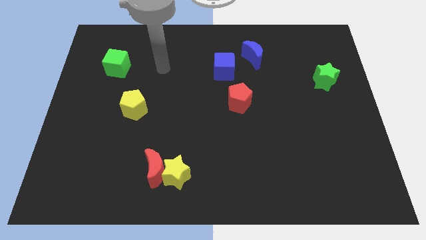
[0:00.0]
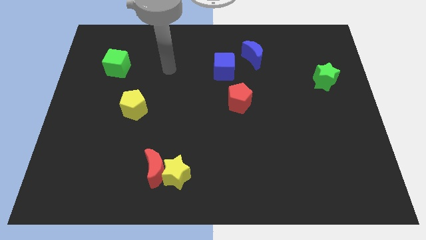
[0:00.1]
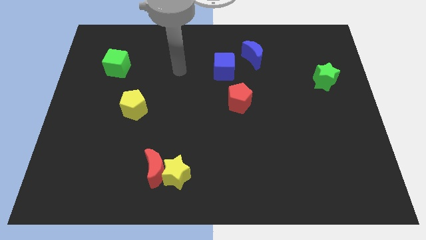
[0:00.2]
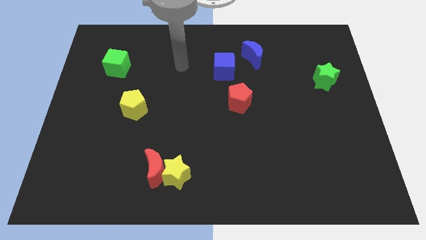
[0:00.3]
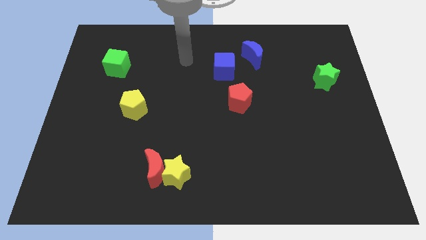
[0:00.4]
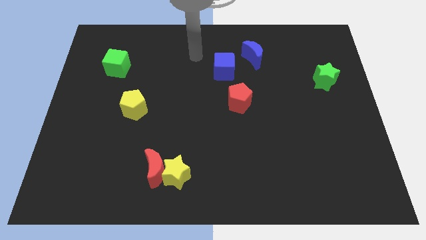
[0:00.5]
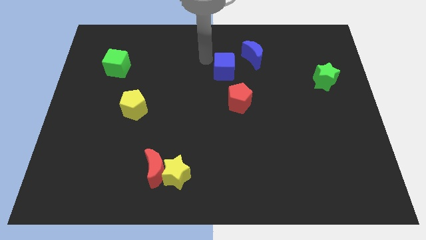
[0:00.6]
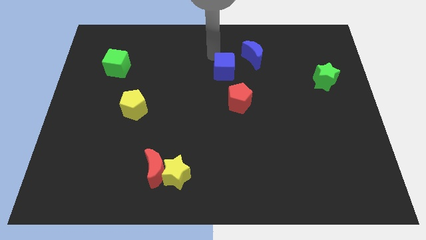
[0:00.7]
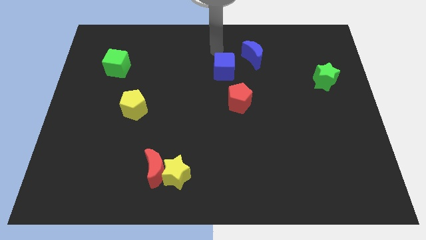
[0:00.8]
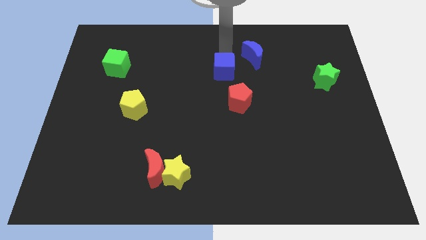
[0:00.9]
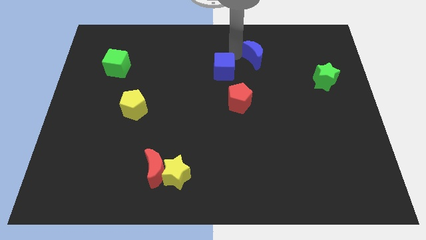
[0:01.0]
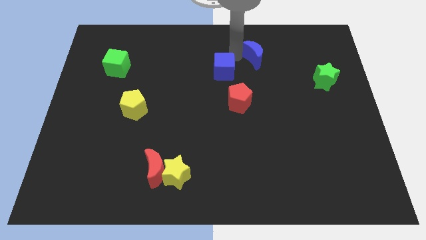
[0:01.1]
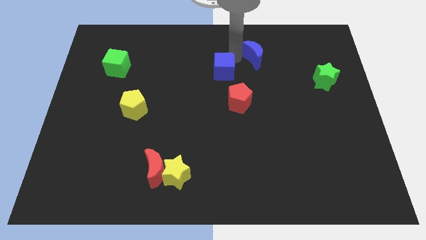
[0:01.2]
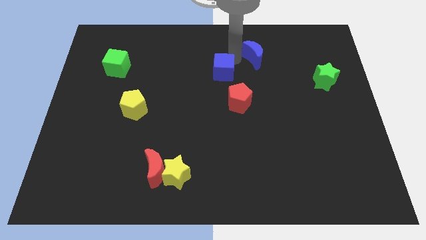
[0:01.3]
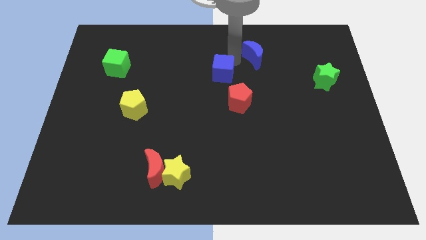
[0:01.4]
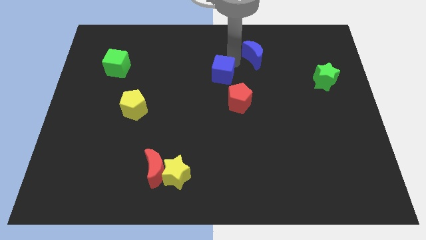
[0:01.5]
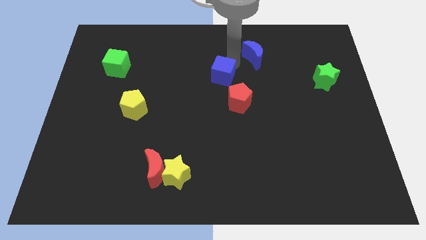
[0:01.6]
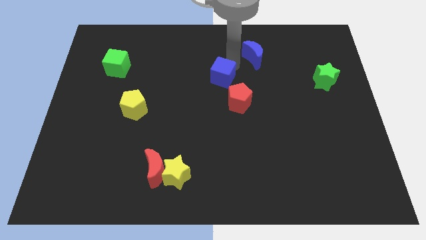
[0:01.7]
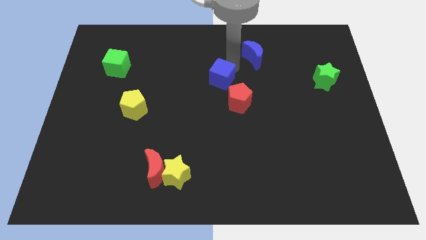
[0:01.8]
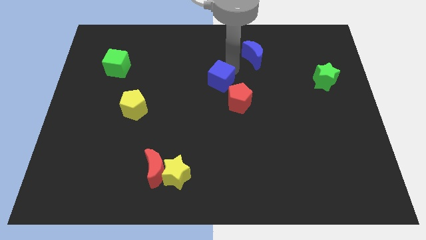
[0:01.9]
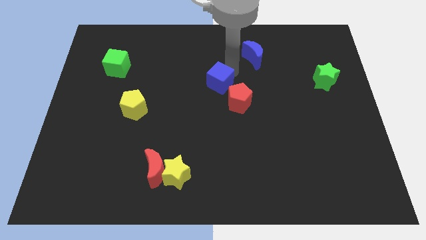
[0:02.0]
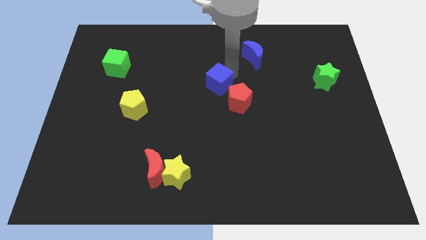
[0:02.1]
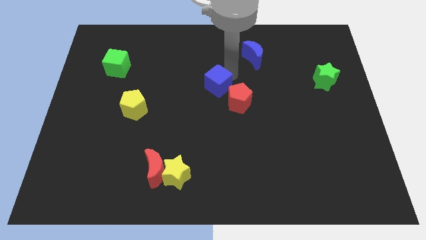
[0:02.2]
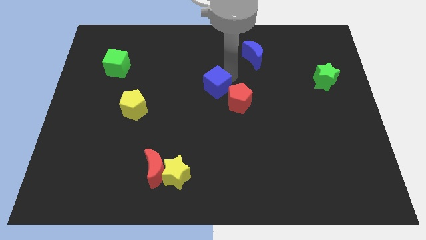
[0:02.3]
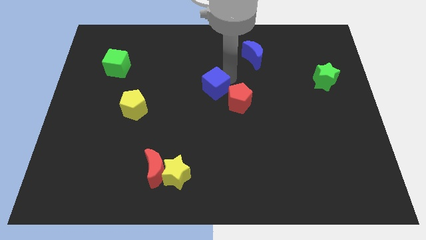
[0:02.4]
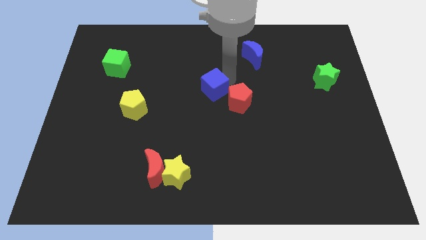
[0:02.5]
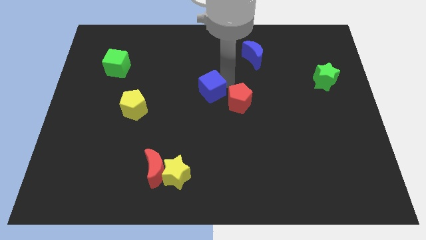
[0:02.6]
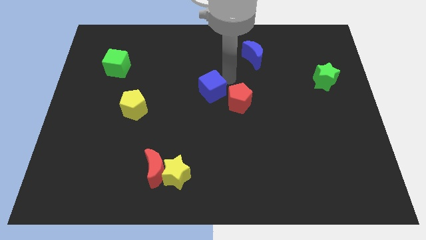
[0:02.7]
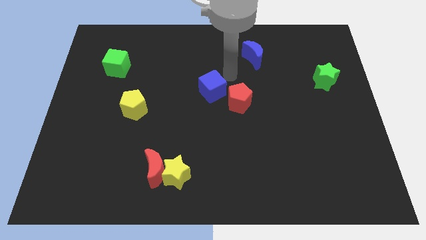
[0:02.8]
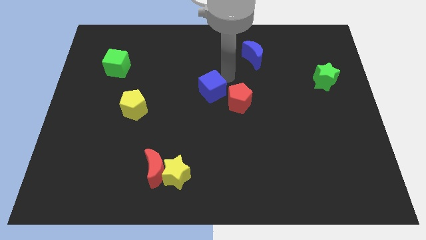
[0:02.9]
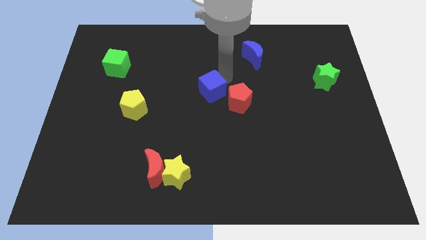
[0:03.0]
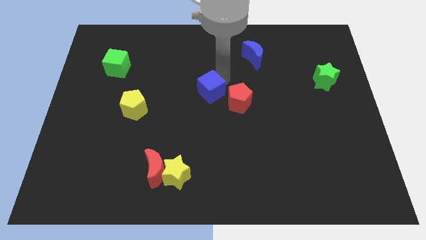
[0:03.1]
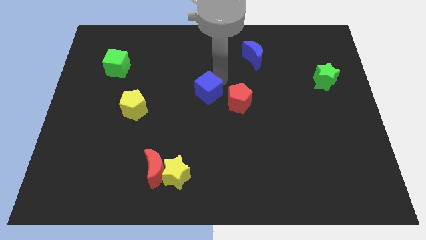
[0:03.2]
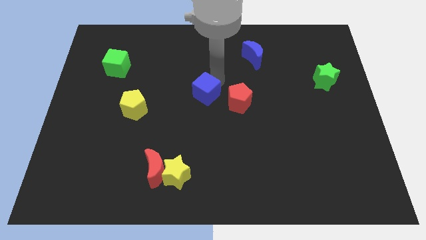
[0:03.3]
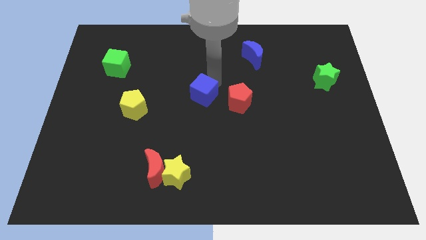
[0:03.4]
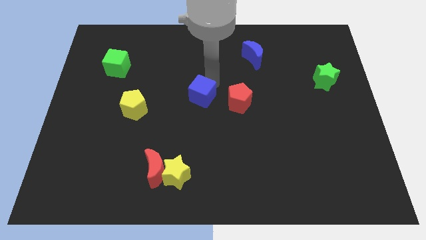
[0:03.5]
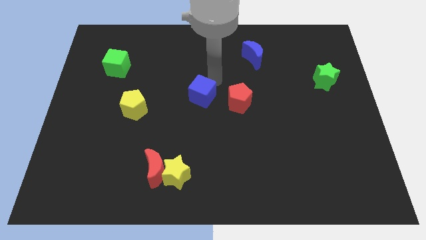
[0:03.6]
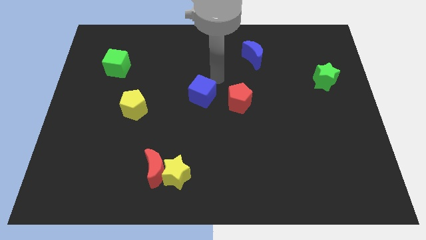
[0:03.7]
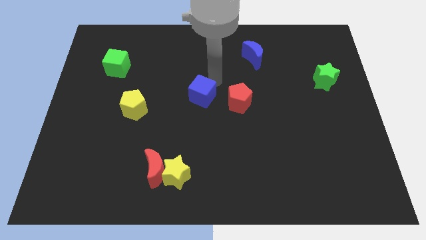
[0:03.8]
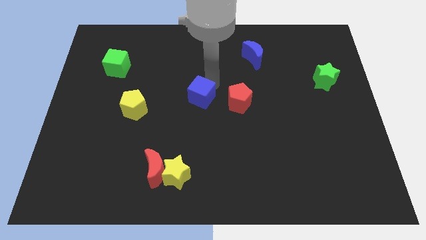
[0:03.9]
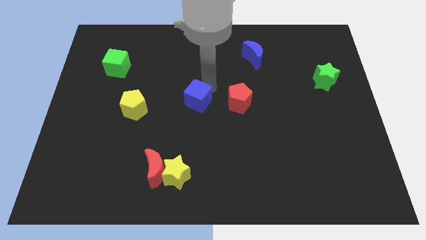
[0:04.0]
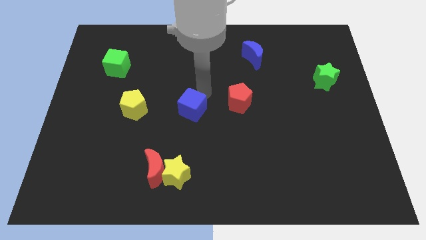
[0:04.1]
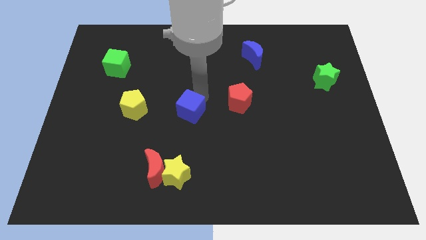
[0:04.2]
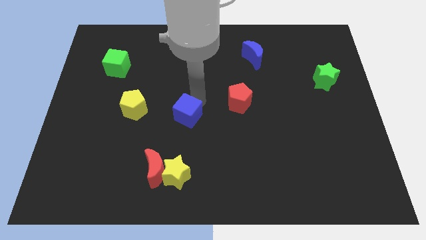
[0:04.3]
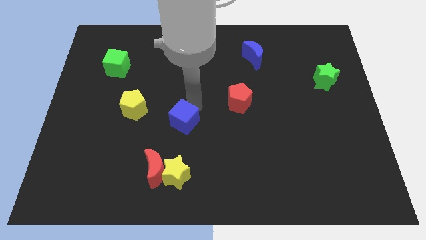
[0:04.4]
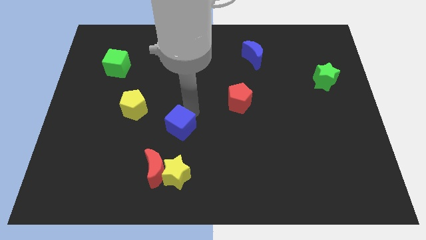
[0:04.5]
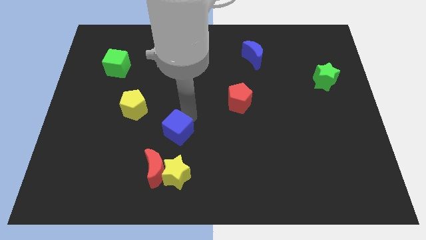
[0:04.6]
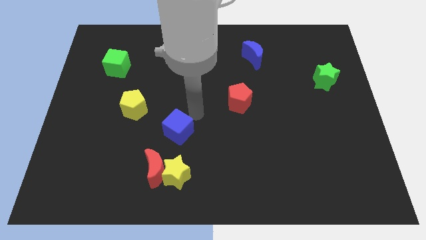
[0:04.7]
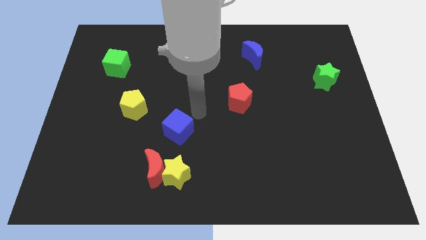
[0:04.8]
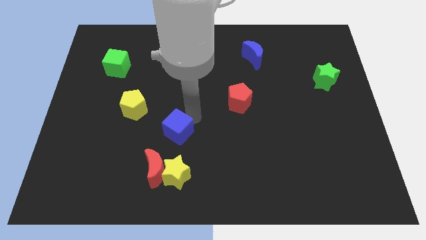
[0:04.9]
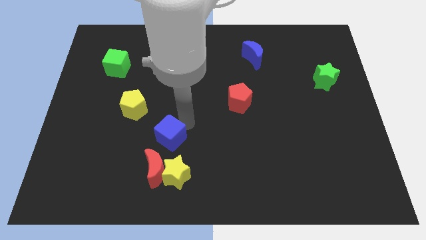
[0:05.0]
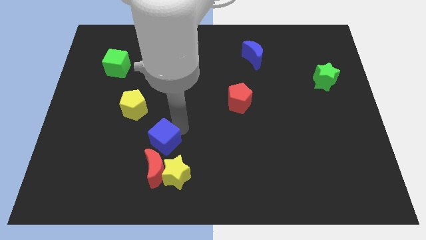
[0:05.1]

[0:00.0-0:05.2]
slide the blue cube to the top left side of the yellow star

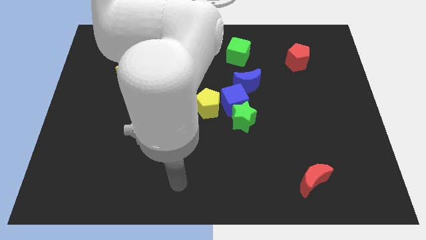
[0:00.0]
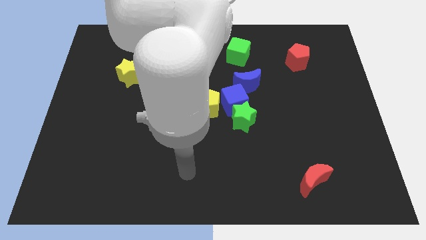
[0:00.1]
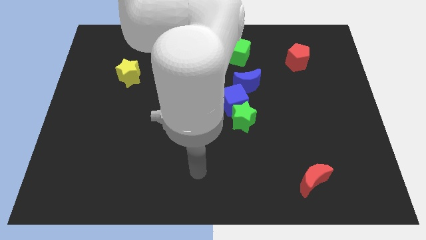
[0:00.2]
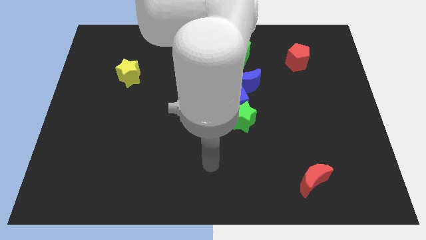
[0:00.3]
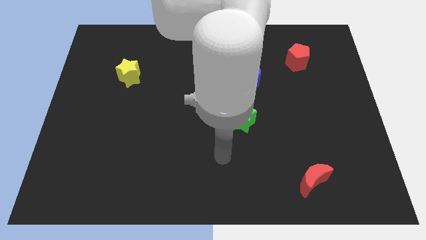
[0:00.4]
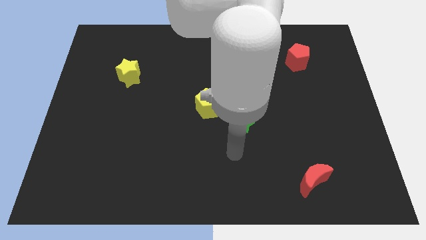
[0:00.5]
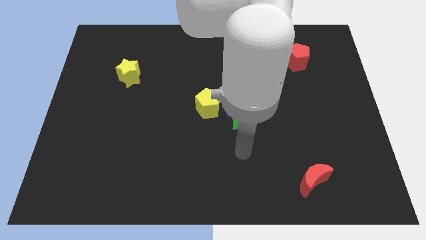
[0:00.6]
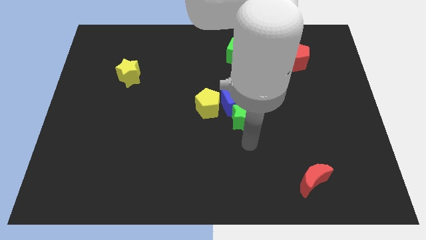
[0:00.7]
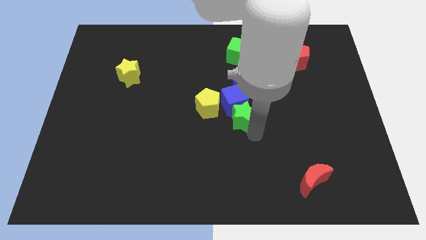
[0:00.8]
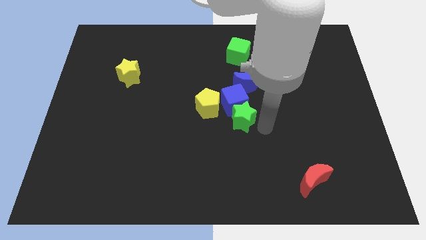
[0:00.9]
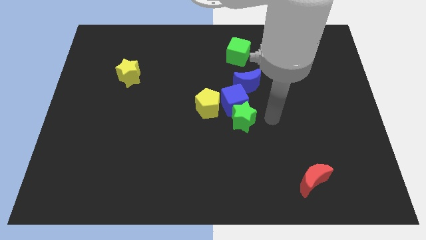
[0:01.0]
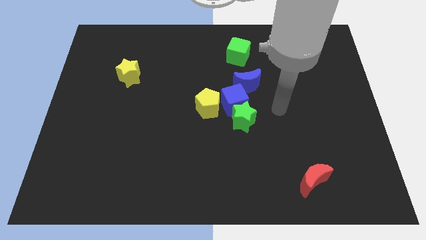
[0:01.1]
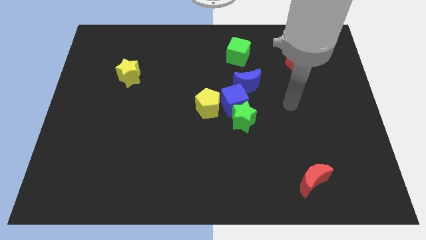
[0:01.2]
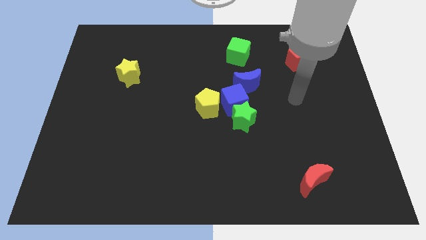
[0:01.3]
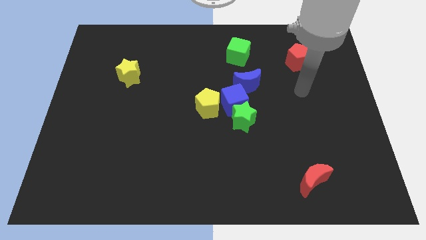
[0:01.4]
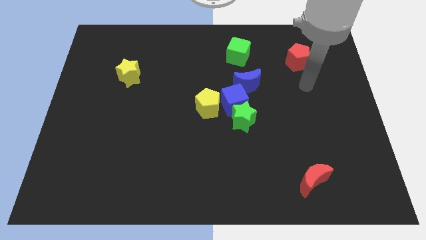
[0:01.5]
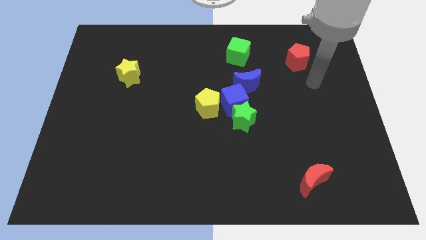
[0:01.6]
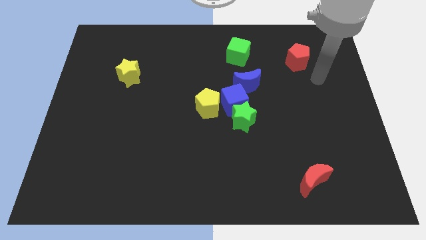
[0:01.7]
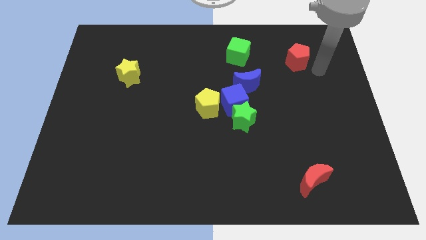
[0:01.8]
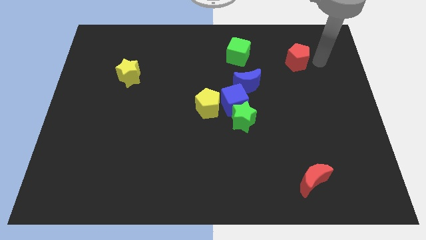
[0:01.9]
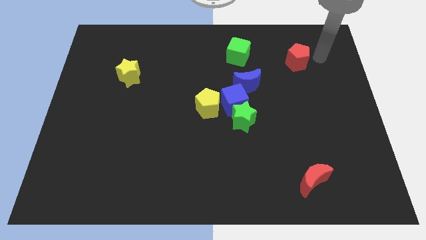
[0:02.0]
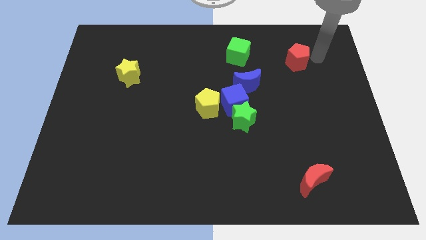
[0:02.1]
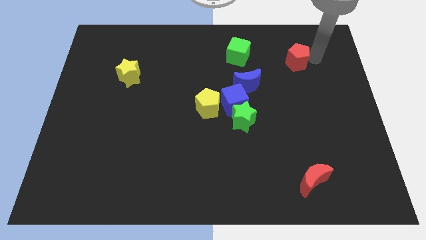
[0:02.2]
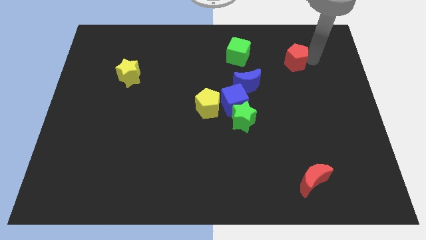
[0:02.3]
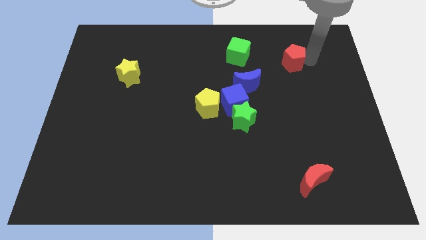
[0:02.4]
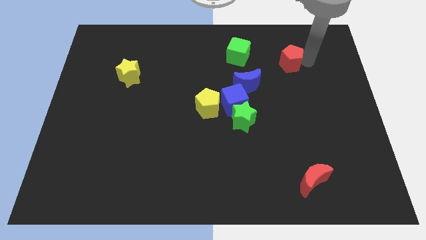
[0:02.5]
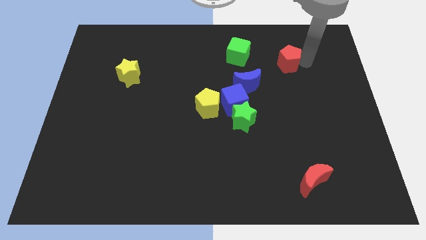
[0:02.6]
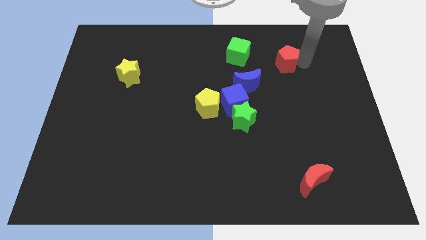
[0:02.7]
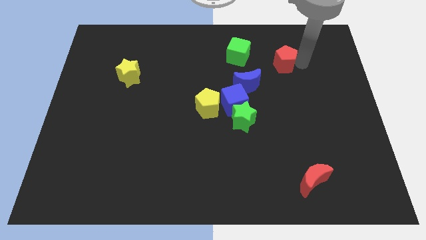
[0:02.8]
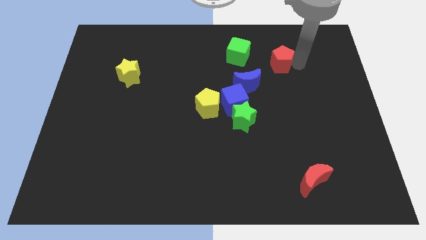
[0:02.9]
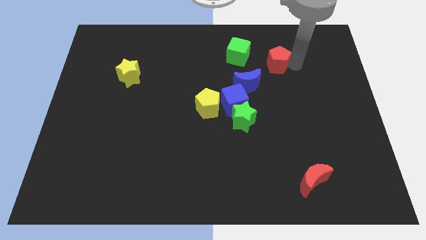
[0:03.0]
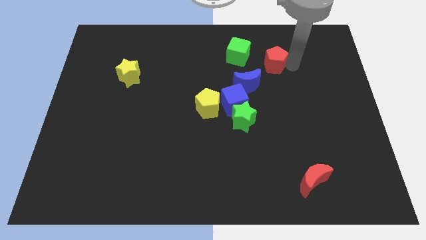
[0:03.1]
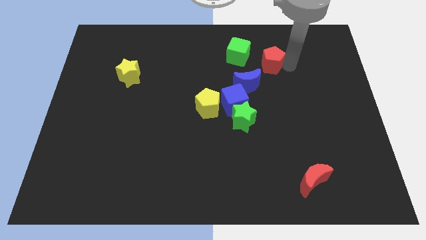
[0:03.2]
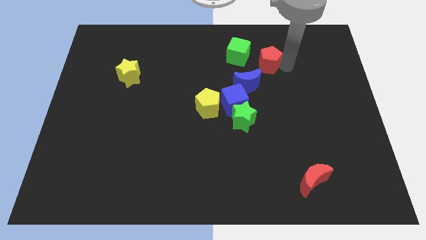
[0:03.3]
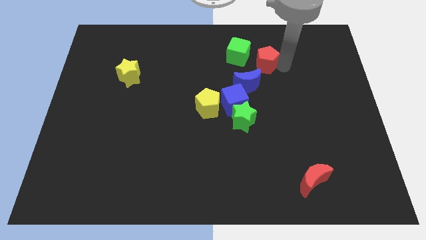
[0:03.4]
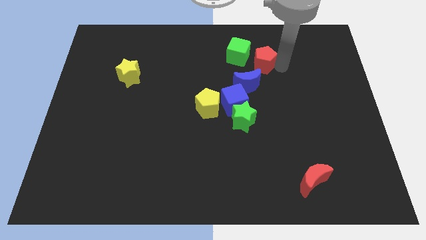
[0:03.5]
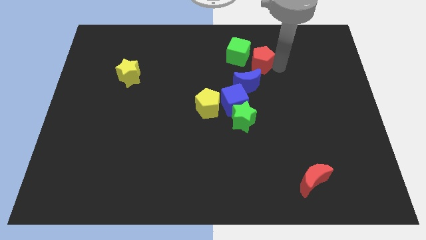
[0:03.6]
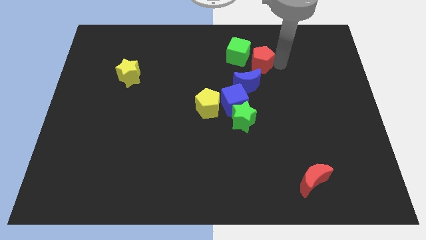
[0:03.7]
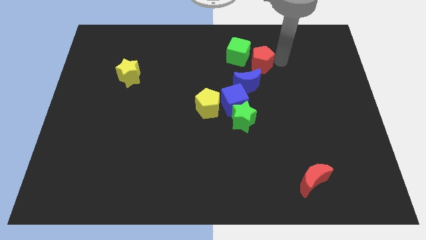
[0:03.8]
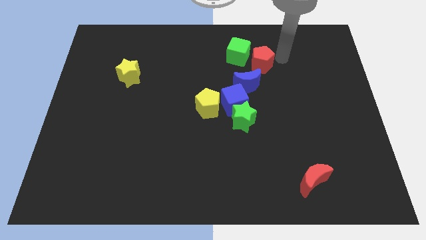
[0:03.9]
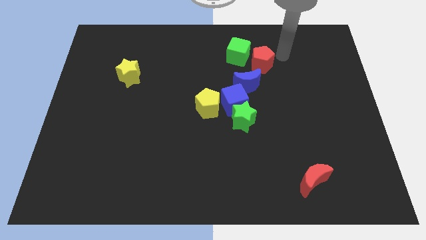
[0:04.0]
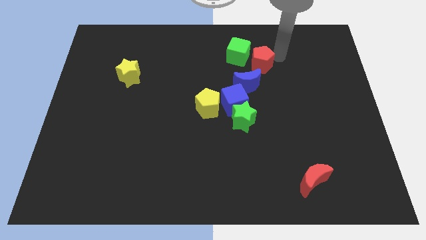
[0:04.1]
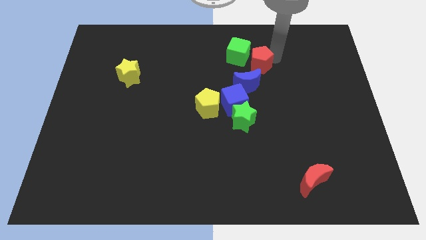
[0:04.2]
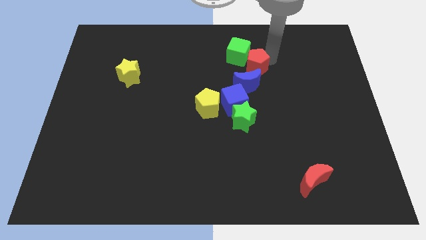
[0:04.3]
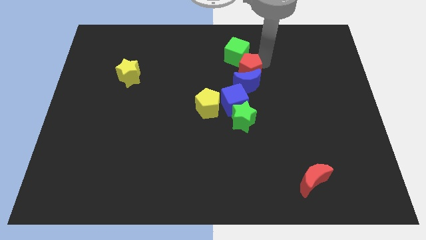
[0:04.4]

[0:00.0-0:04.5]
move the red pentagon to the top left side of the blue moon
